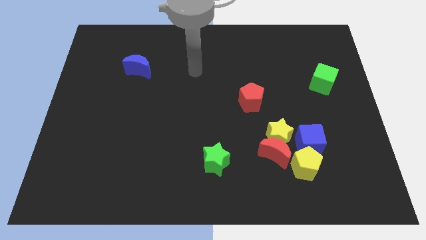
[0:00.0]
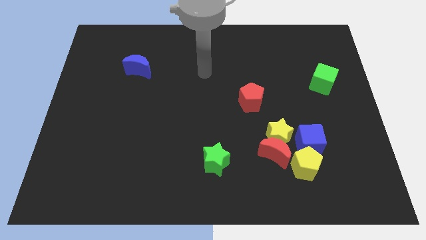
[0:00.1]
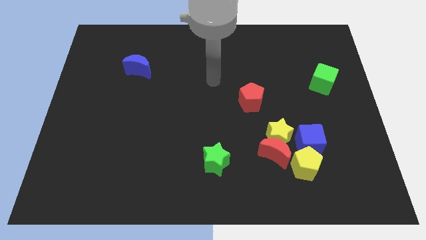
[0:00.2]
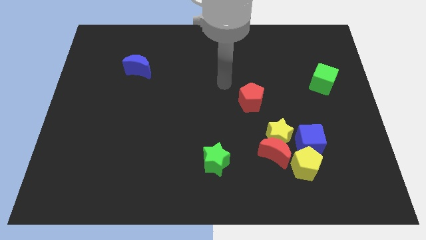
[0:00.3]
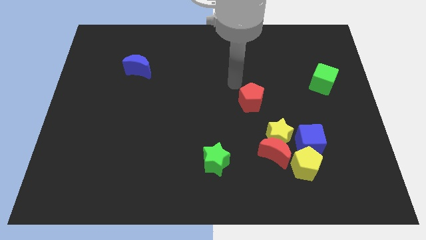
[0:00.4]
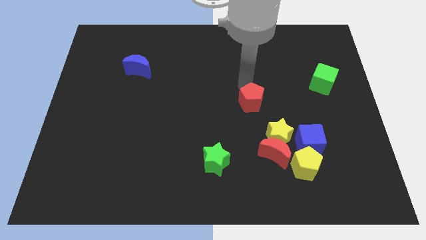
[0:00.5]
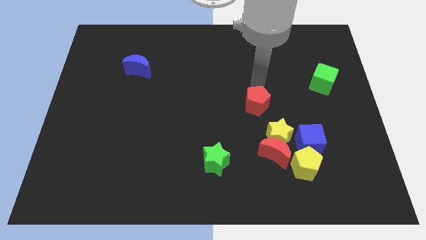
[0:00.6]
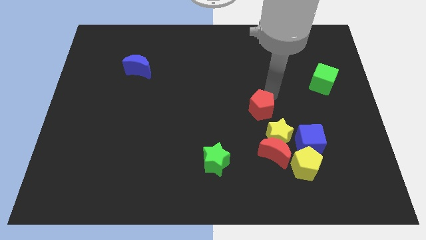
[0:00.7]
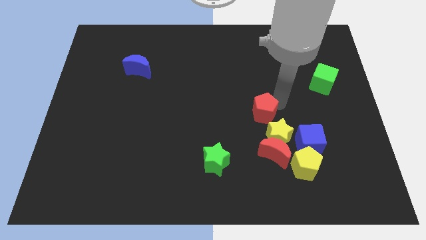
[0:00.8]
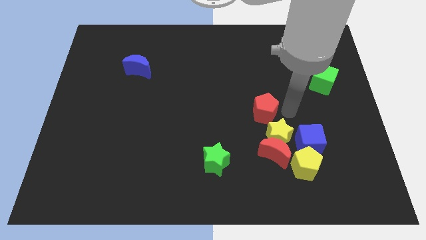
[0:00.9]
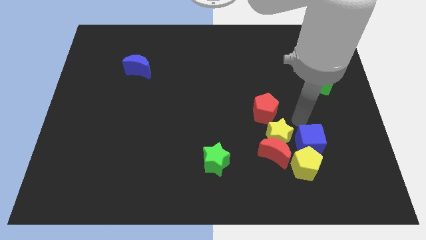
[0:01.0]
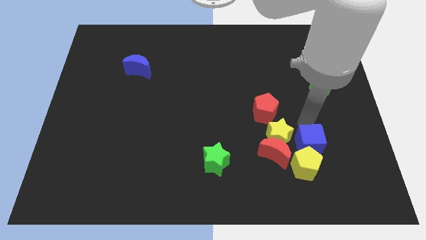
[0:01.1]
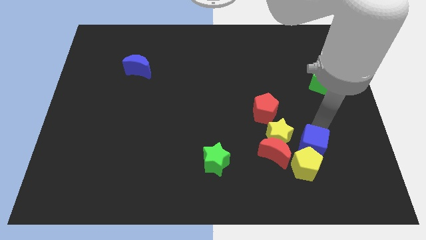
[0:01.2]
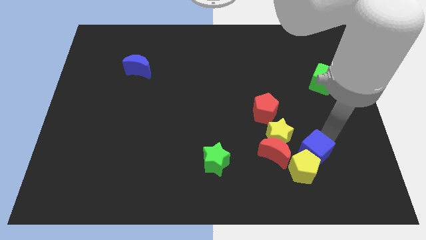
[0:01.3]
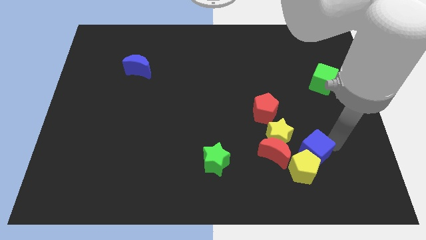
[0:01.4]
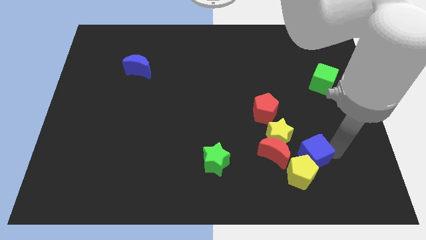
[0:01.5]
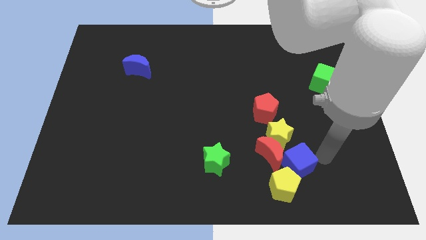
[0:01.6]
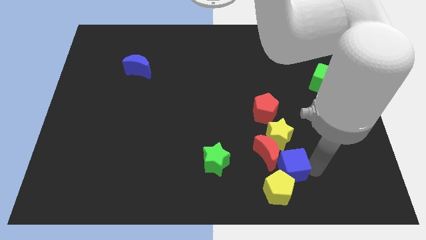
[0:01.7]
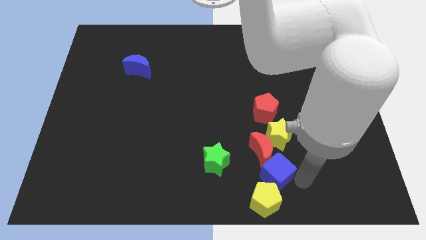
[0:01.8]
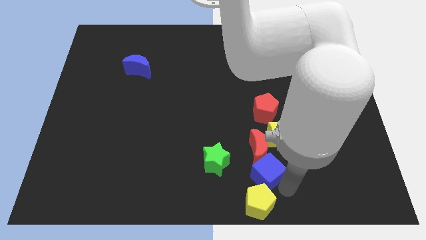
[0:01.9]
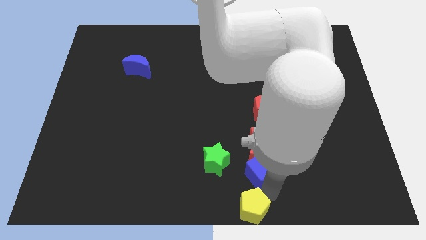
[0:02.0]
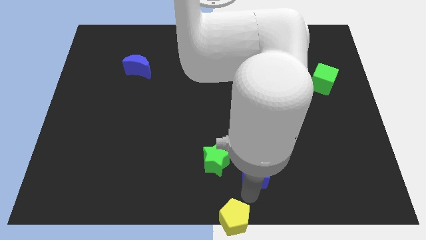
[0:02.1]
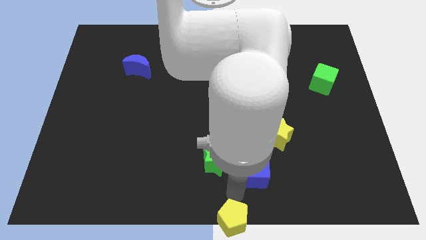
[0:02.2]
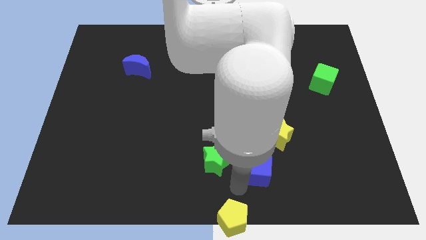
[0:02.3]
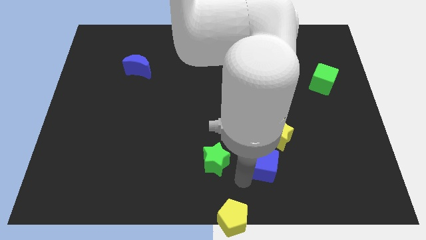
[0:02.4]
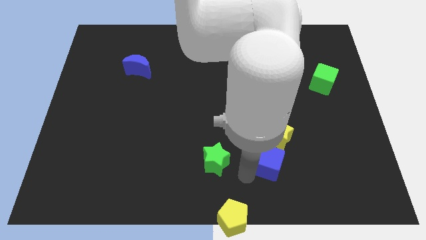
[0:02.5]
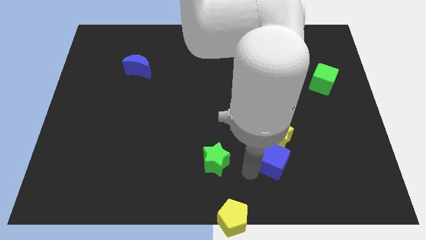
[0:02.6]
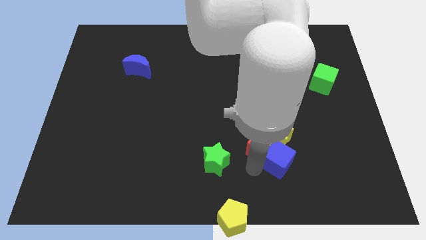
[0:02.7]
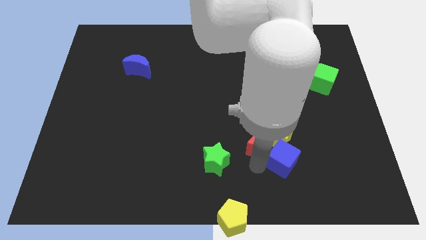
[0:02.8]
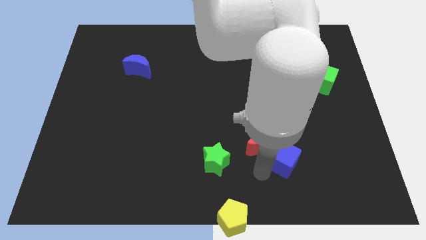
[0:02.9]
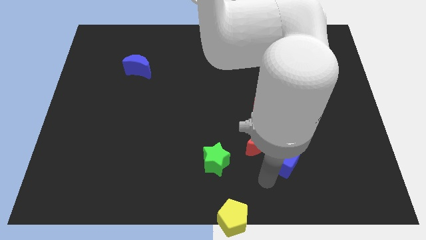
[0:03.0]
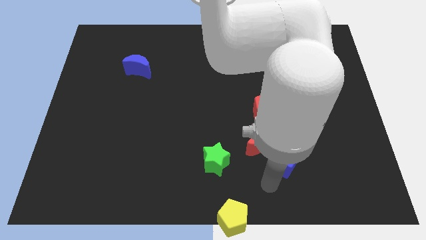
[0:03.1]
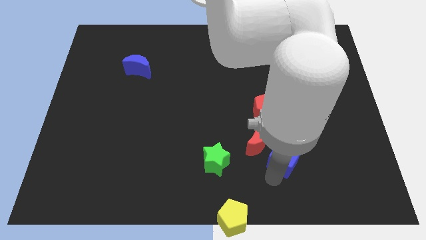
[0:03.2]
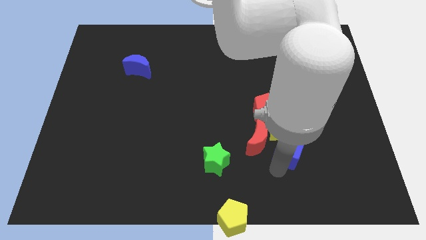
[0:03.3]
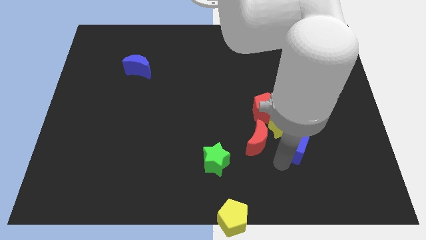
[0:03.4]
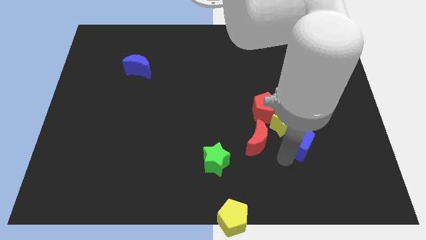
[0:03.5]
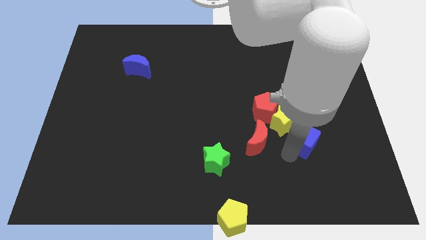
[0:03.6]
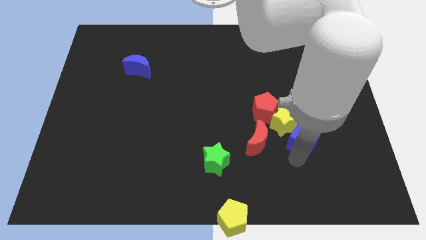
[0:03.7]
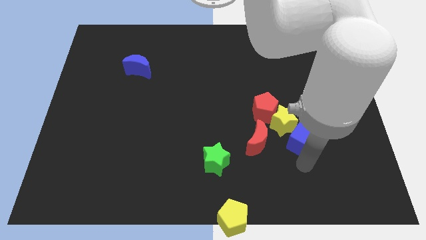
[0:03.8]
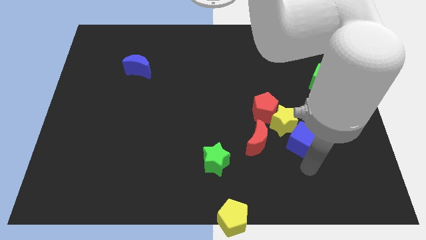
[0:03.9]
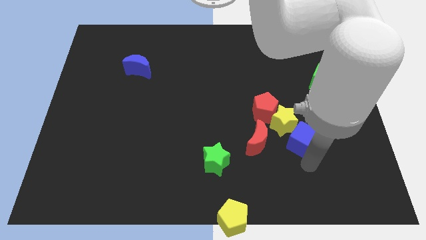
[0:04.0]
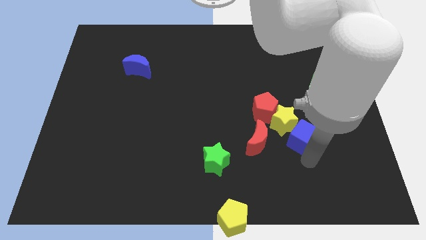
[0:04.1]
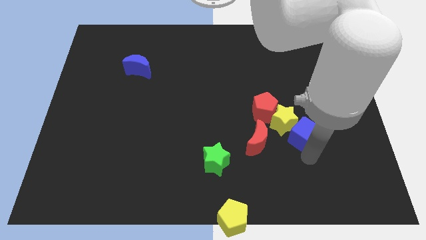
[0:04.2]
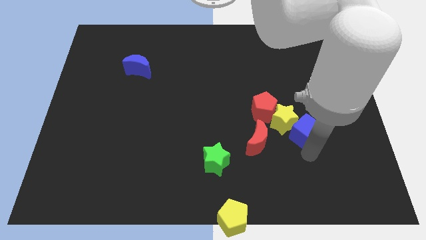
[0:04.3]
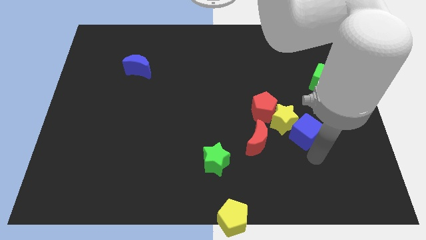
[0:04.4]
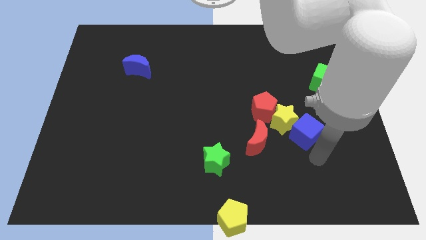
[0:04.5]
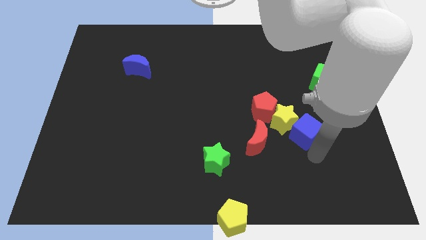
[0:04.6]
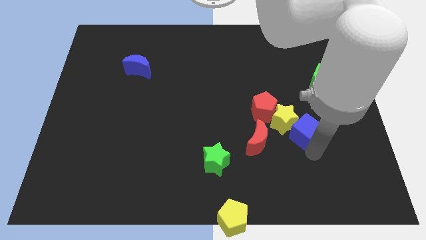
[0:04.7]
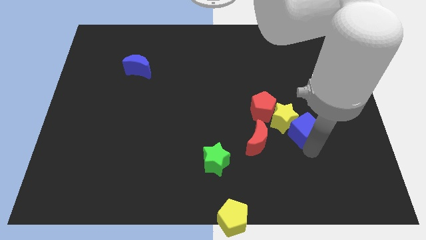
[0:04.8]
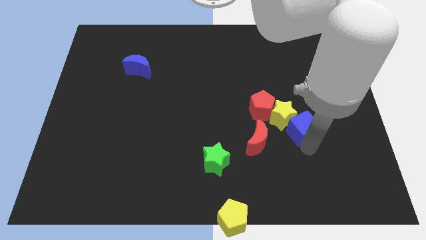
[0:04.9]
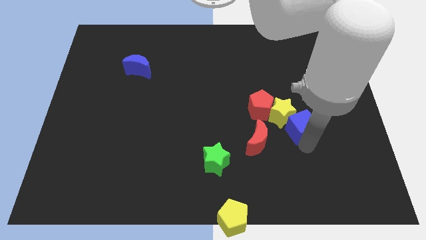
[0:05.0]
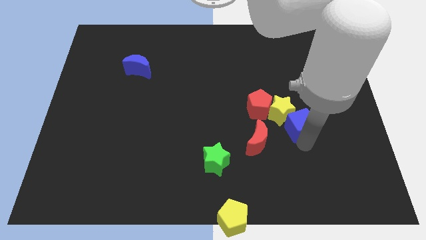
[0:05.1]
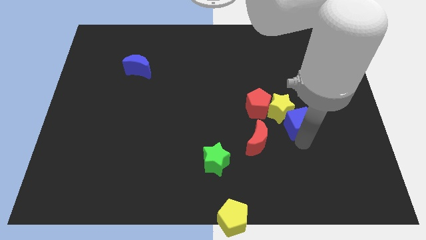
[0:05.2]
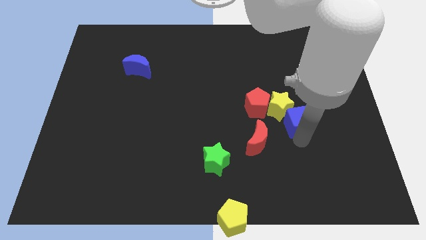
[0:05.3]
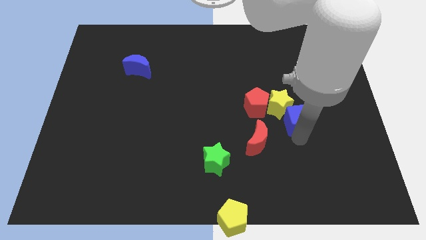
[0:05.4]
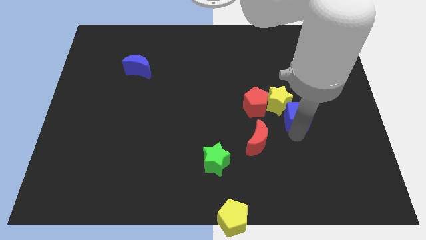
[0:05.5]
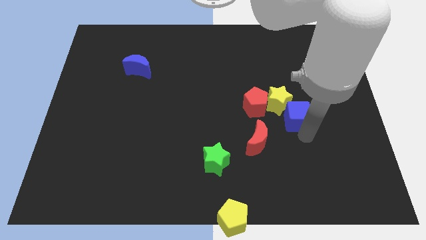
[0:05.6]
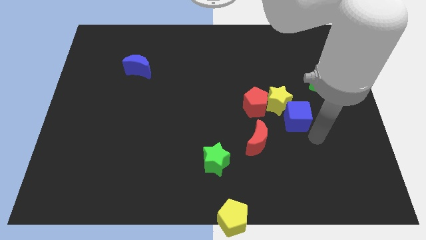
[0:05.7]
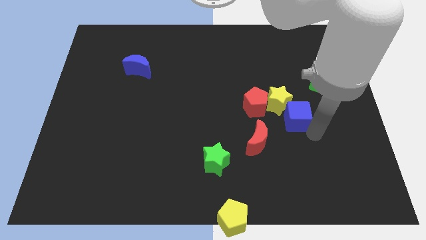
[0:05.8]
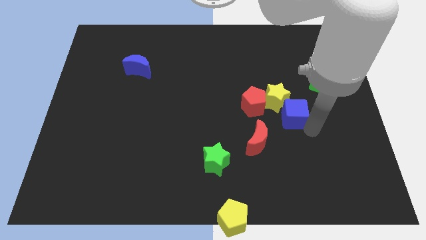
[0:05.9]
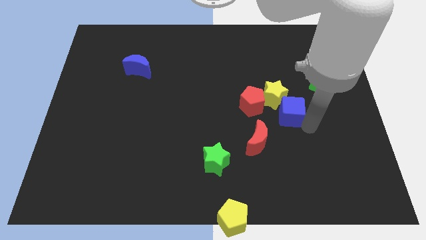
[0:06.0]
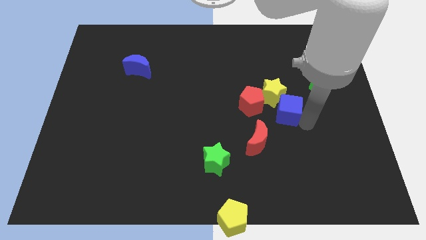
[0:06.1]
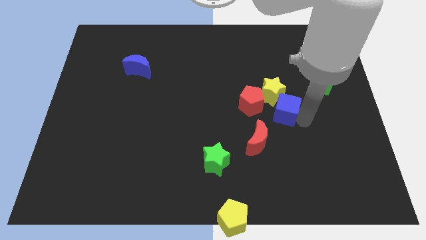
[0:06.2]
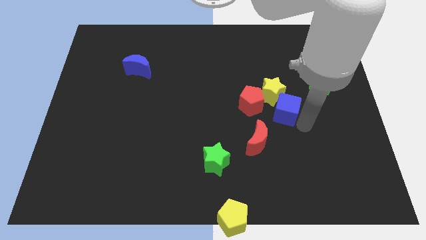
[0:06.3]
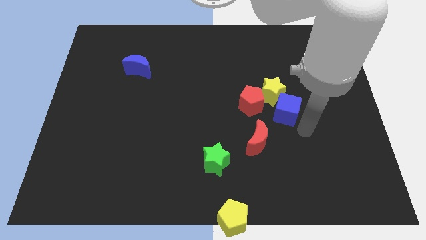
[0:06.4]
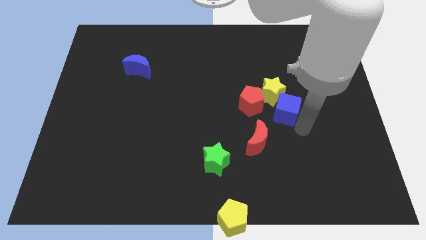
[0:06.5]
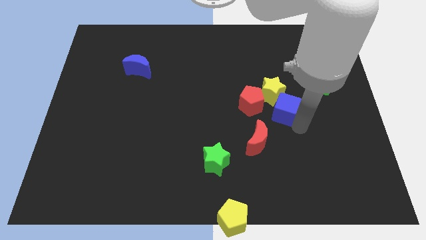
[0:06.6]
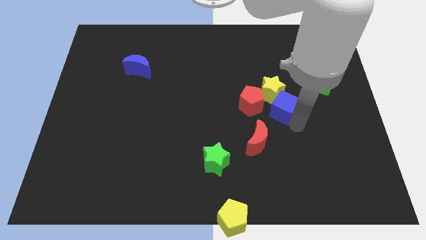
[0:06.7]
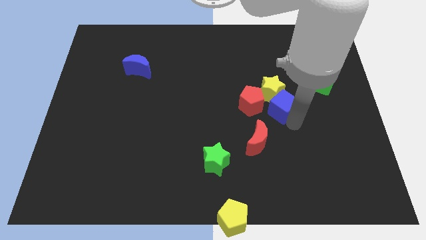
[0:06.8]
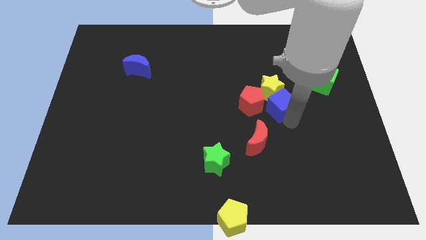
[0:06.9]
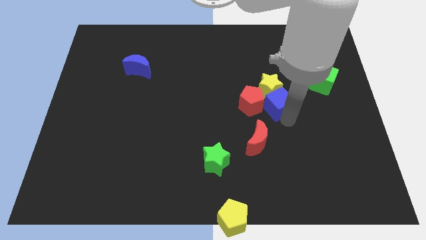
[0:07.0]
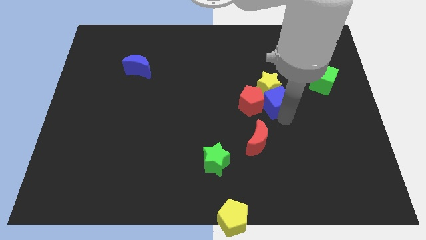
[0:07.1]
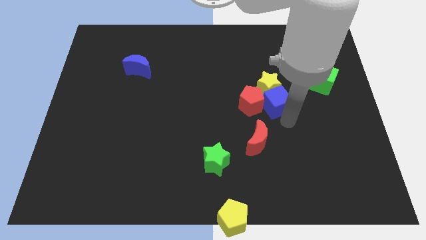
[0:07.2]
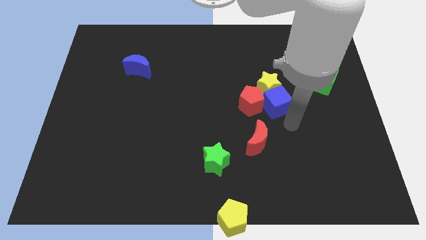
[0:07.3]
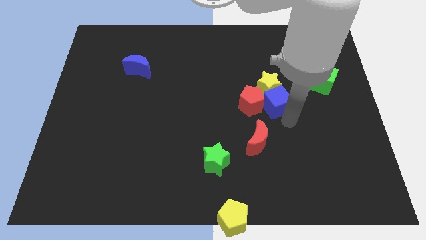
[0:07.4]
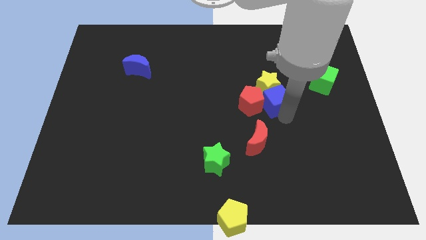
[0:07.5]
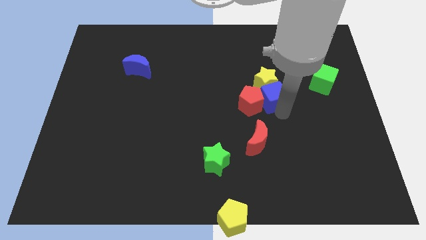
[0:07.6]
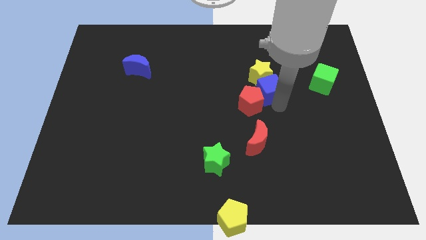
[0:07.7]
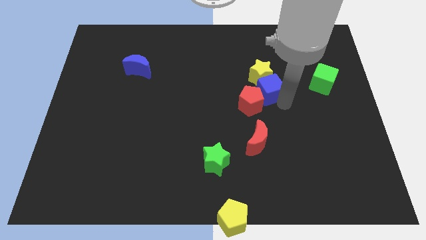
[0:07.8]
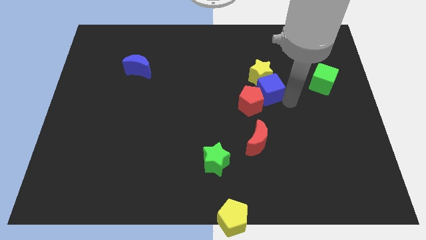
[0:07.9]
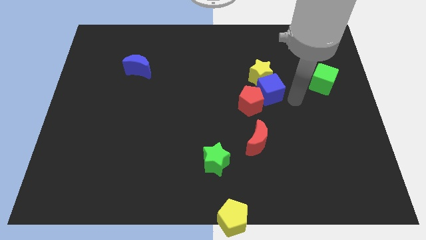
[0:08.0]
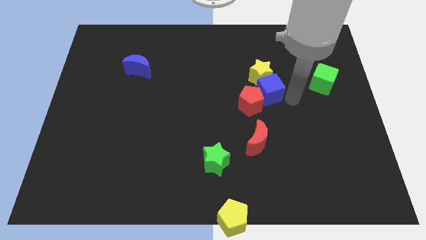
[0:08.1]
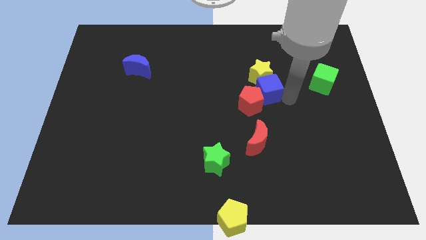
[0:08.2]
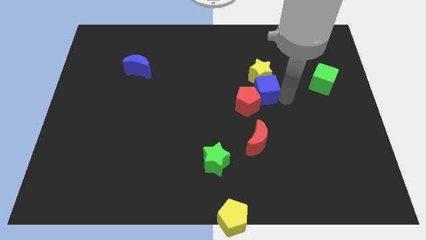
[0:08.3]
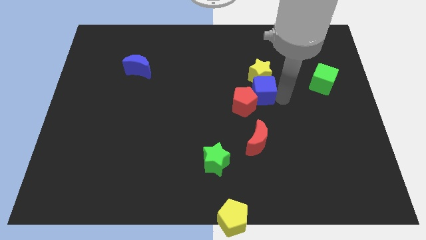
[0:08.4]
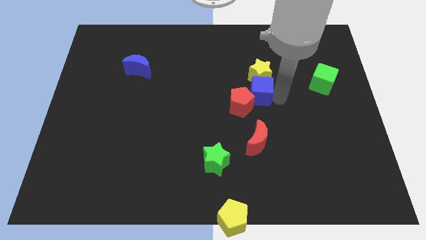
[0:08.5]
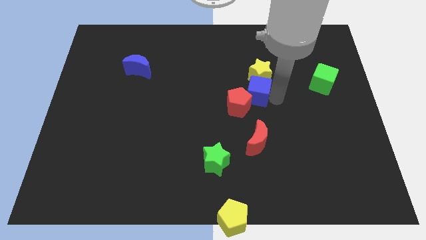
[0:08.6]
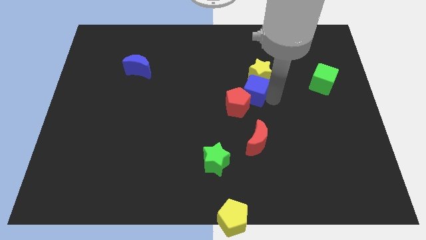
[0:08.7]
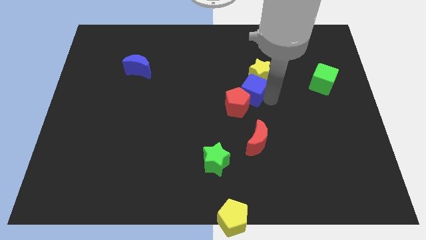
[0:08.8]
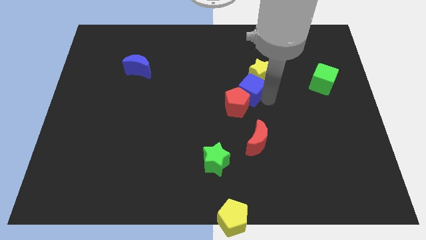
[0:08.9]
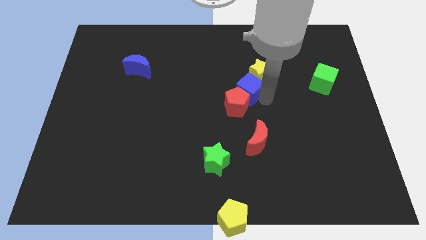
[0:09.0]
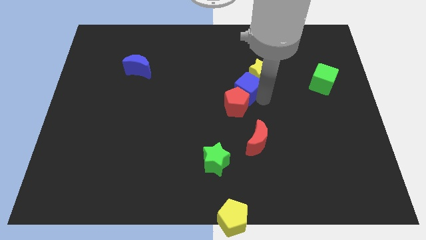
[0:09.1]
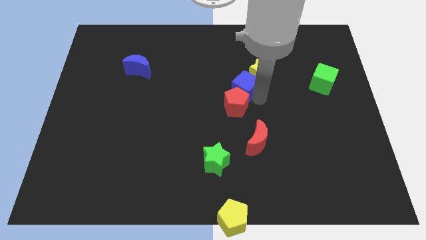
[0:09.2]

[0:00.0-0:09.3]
move the blue cube upwards and then left
